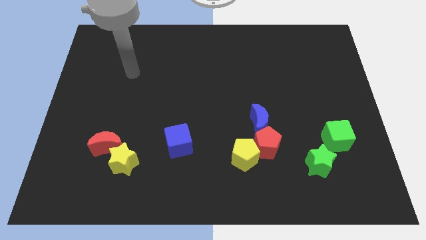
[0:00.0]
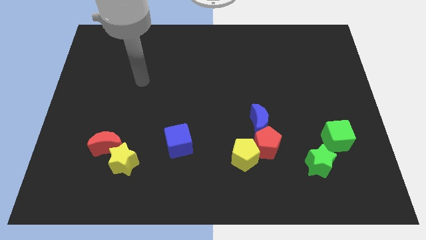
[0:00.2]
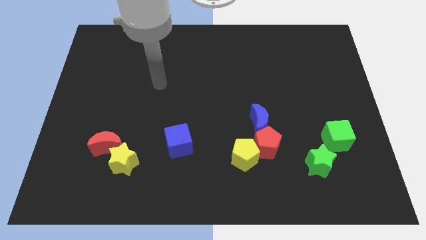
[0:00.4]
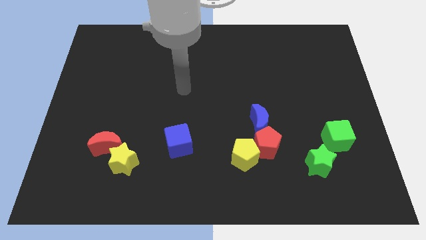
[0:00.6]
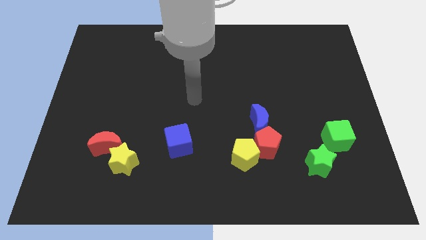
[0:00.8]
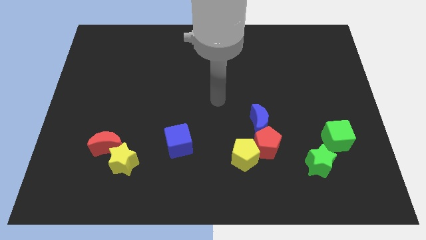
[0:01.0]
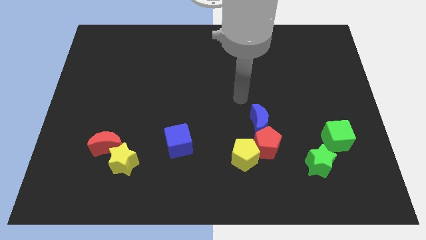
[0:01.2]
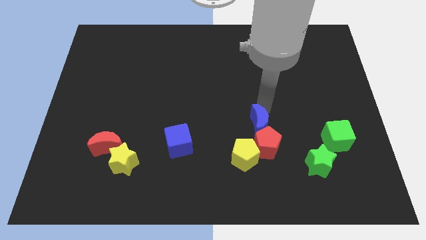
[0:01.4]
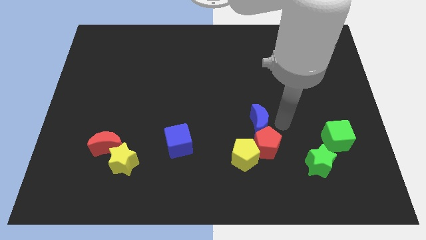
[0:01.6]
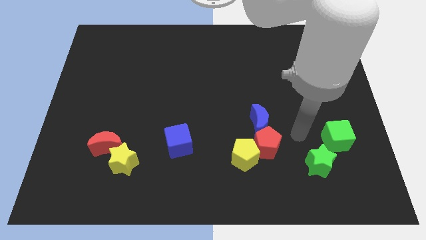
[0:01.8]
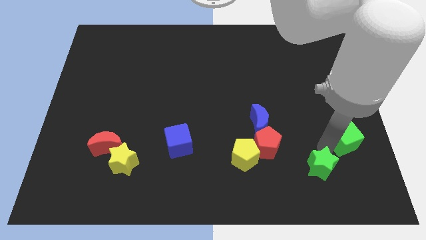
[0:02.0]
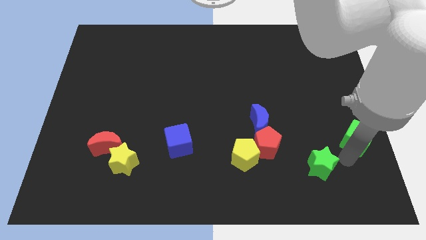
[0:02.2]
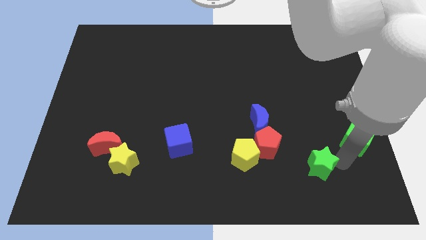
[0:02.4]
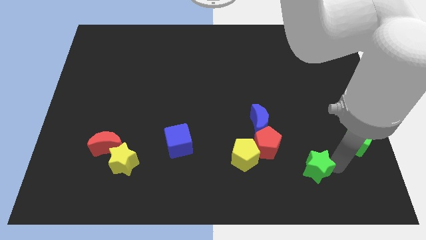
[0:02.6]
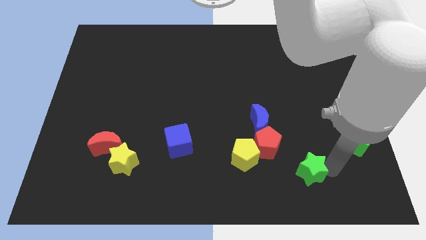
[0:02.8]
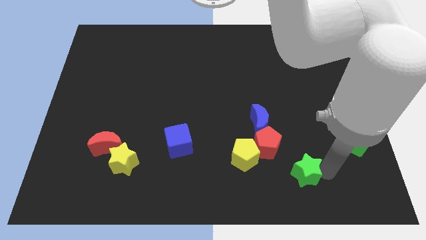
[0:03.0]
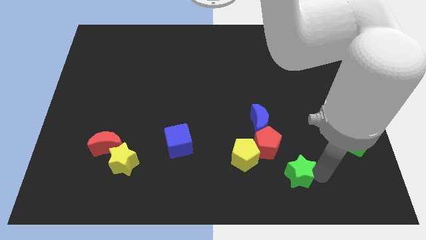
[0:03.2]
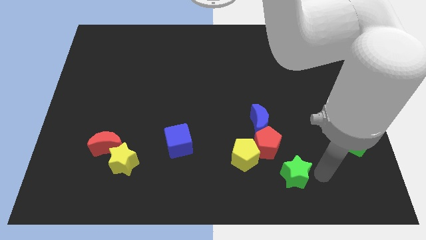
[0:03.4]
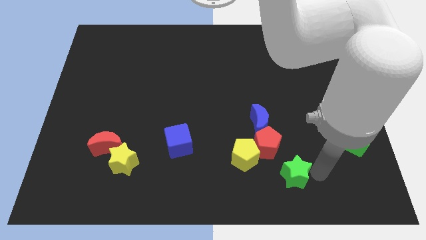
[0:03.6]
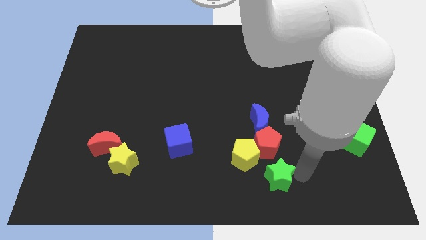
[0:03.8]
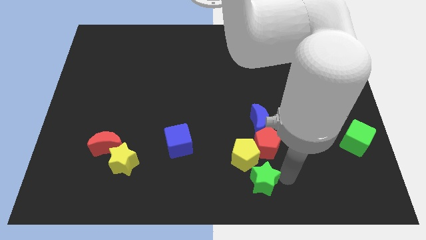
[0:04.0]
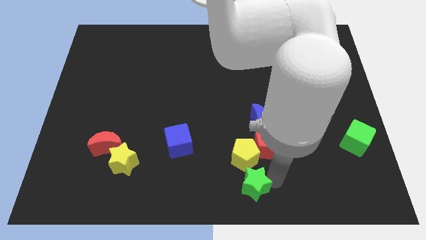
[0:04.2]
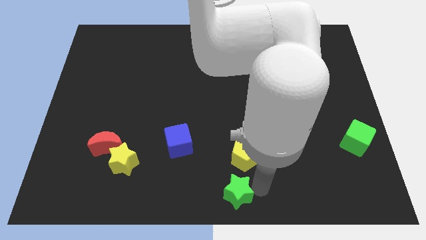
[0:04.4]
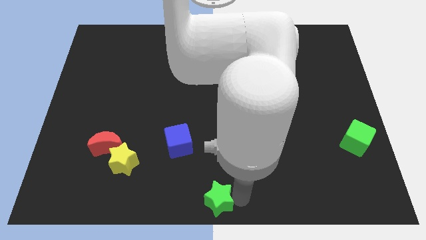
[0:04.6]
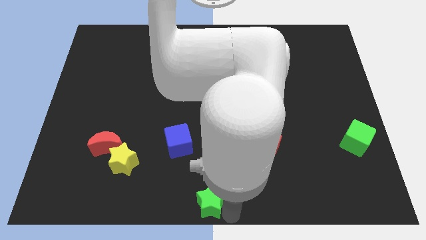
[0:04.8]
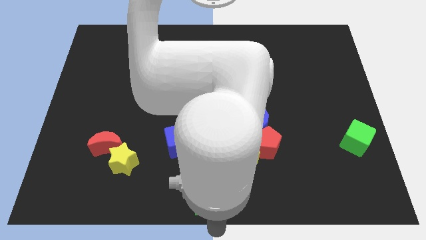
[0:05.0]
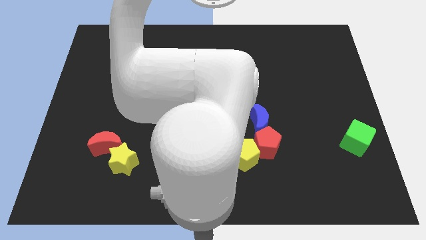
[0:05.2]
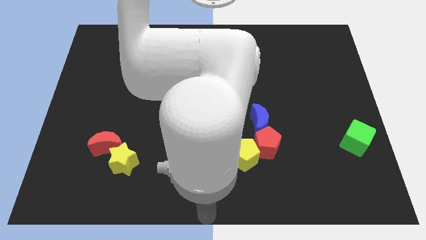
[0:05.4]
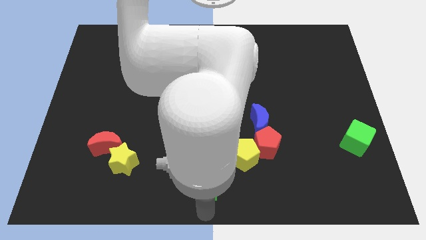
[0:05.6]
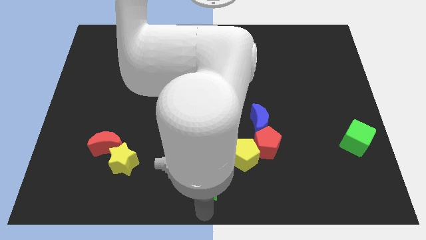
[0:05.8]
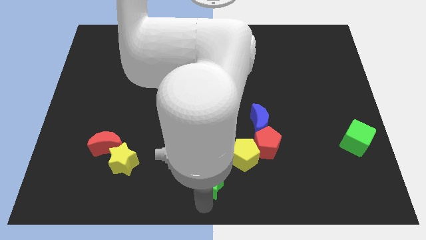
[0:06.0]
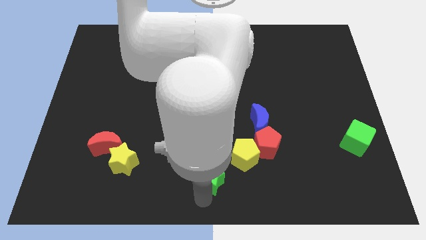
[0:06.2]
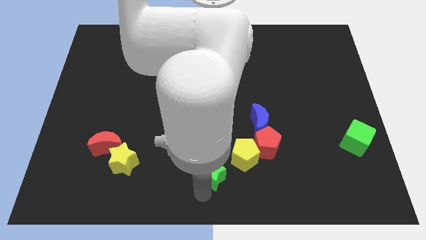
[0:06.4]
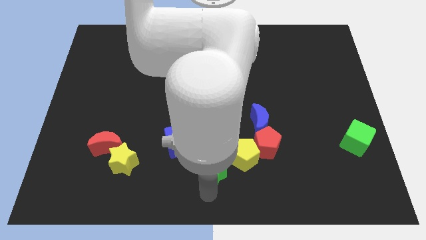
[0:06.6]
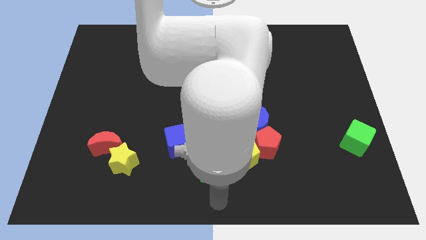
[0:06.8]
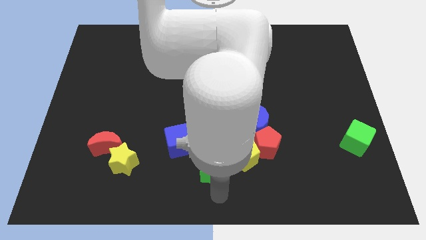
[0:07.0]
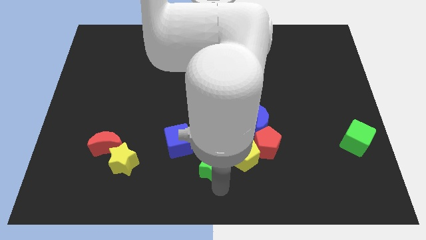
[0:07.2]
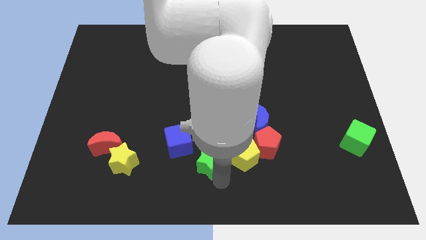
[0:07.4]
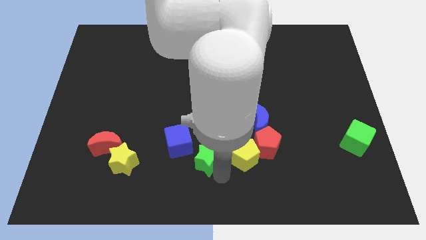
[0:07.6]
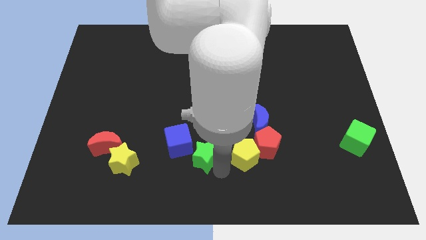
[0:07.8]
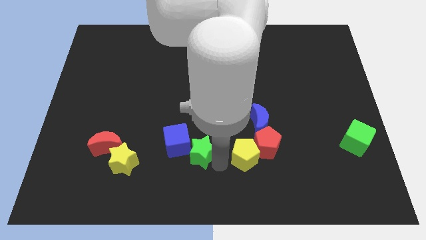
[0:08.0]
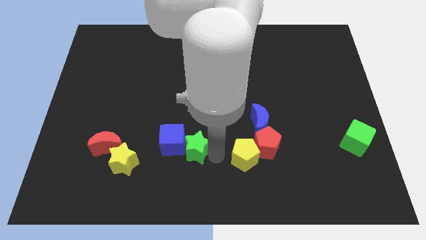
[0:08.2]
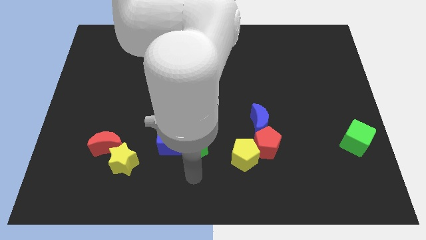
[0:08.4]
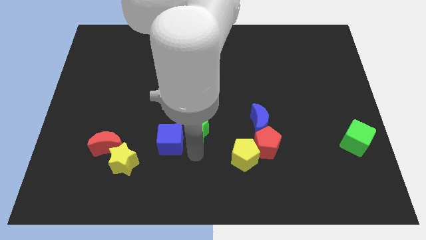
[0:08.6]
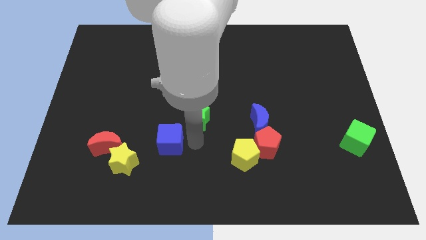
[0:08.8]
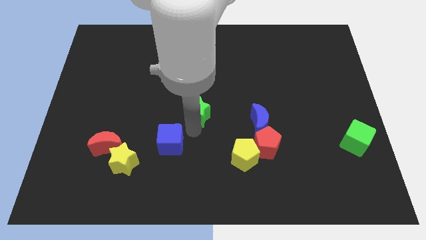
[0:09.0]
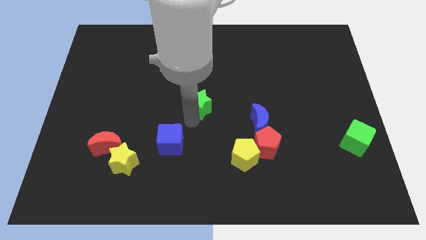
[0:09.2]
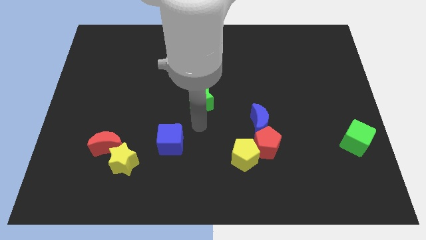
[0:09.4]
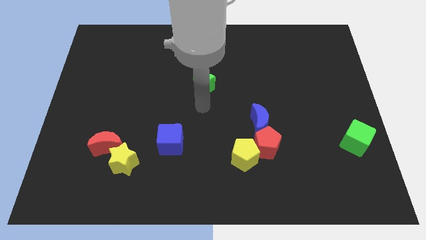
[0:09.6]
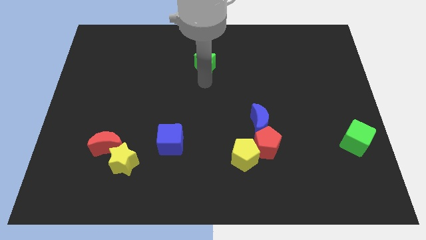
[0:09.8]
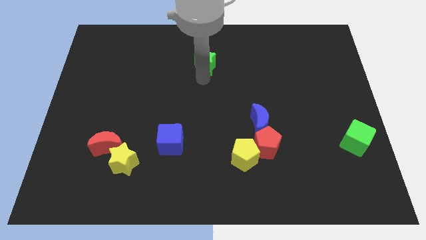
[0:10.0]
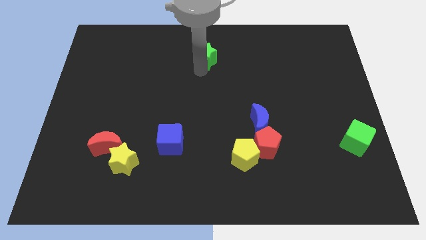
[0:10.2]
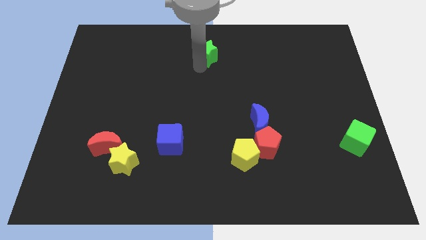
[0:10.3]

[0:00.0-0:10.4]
put the green star to the top side
